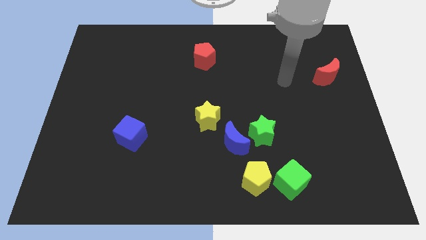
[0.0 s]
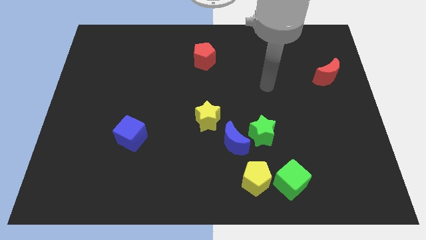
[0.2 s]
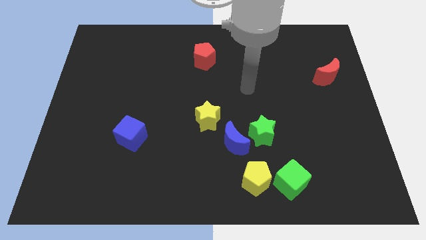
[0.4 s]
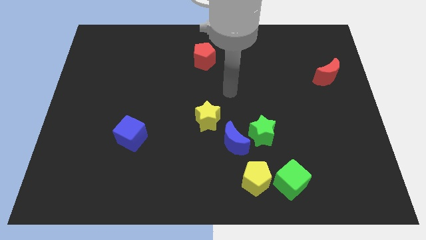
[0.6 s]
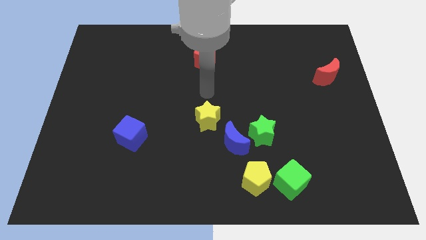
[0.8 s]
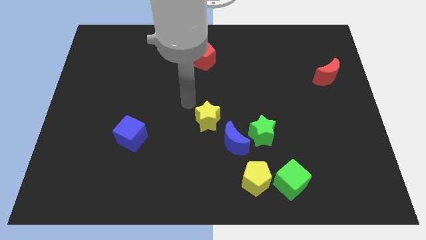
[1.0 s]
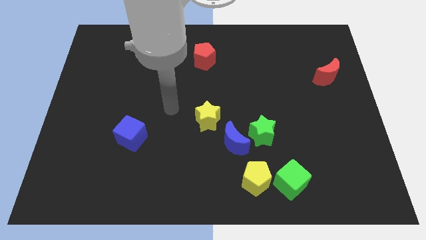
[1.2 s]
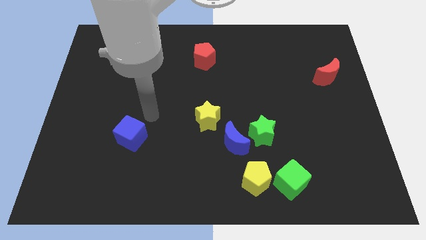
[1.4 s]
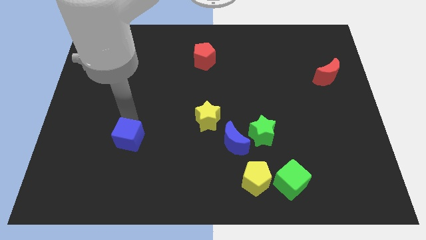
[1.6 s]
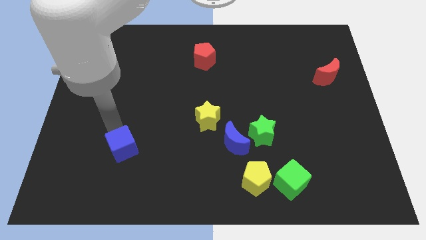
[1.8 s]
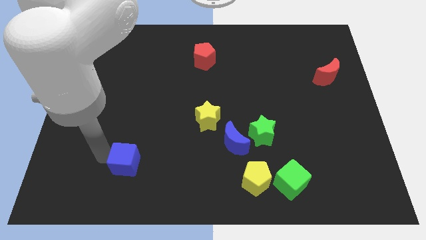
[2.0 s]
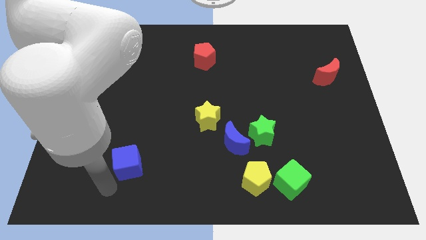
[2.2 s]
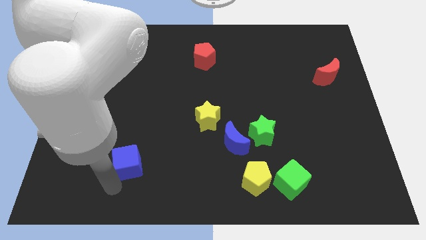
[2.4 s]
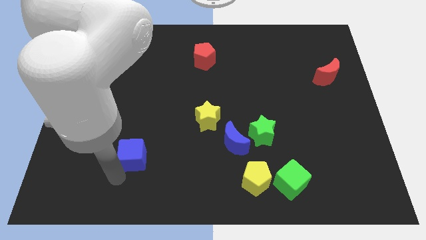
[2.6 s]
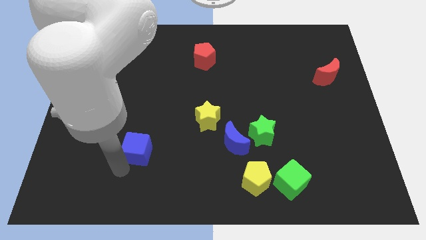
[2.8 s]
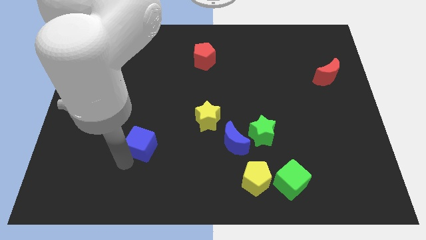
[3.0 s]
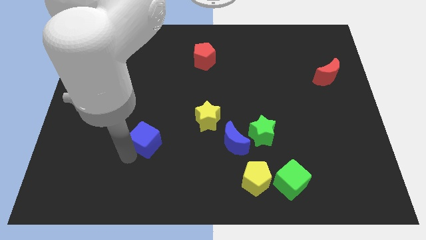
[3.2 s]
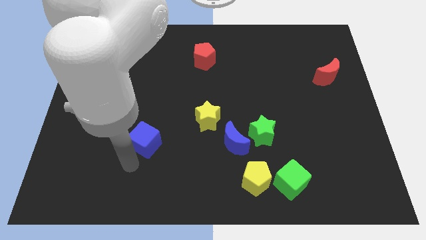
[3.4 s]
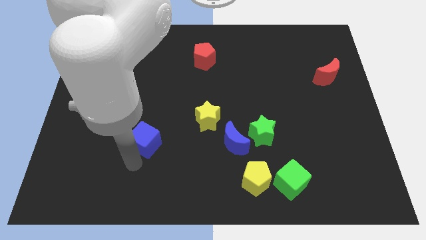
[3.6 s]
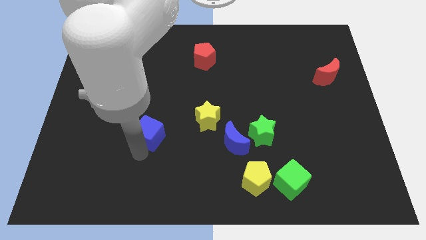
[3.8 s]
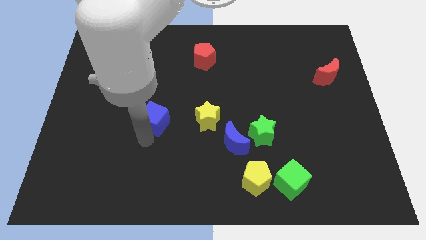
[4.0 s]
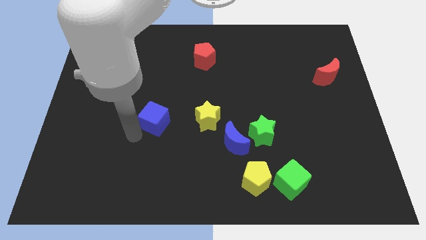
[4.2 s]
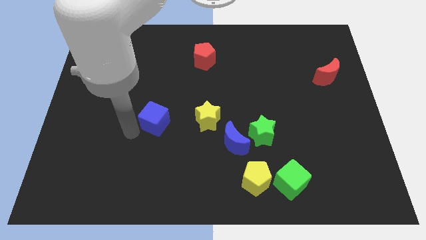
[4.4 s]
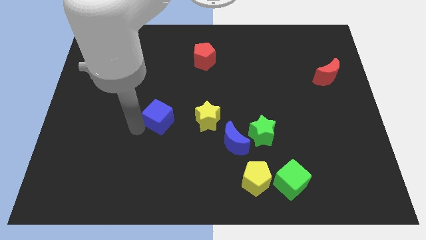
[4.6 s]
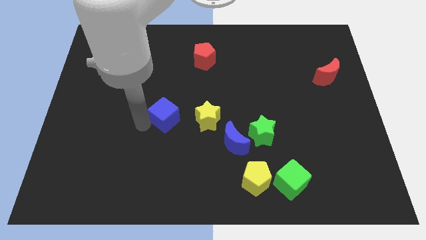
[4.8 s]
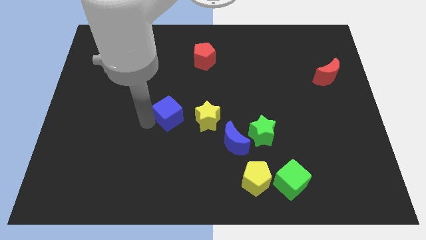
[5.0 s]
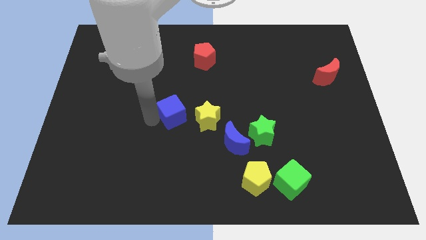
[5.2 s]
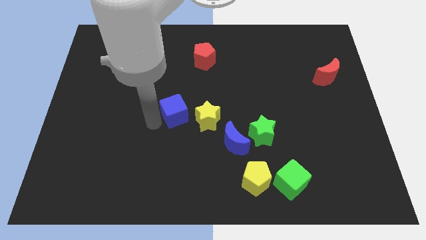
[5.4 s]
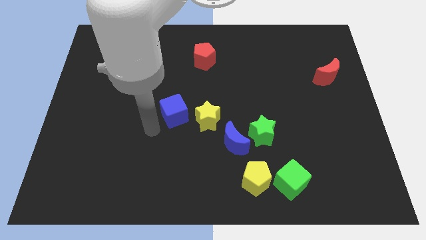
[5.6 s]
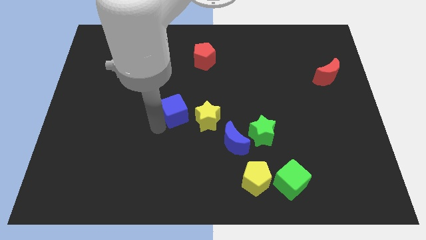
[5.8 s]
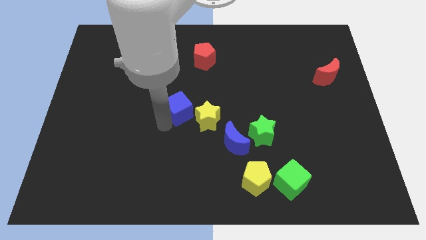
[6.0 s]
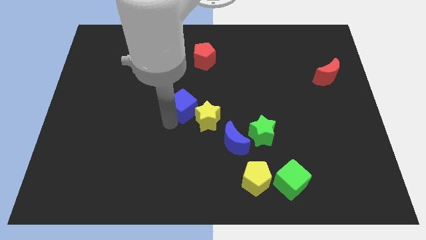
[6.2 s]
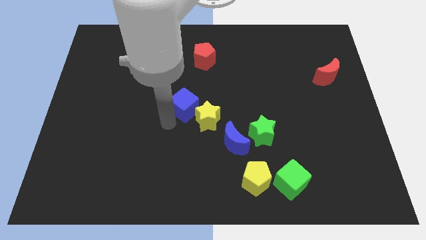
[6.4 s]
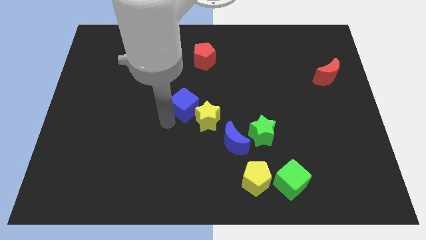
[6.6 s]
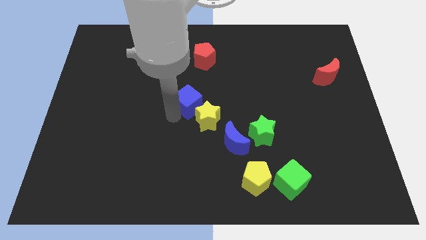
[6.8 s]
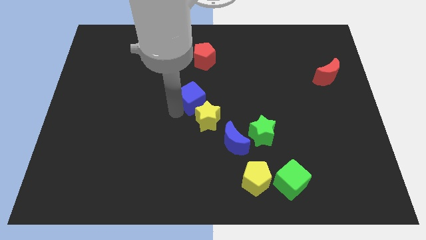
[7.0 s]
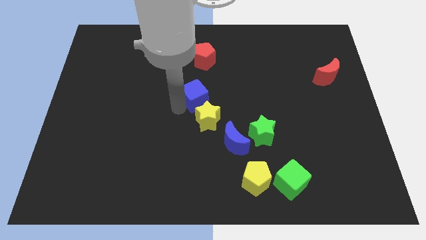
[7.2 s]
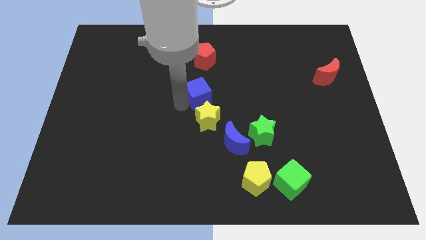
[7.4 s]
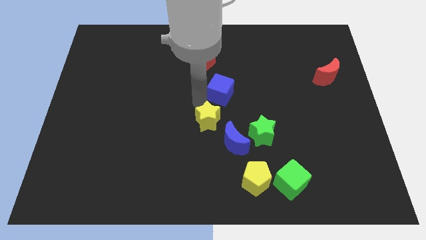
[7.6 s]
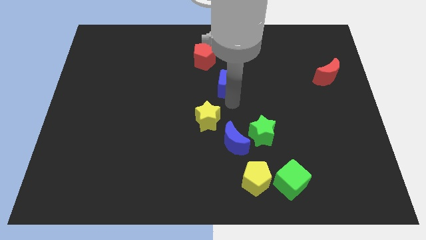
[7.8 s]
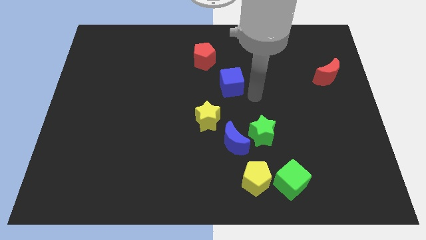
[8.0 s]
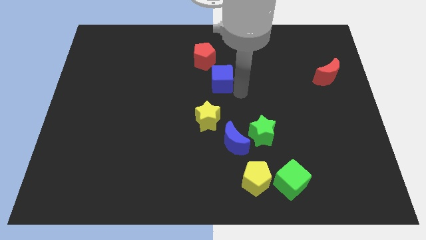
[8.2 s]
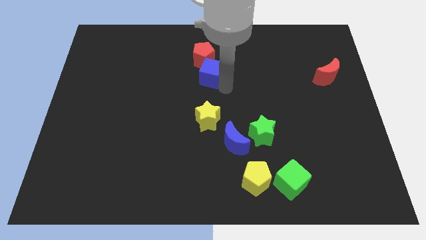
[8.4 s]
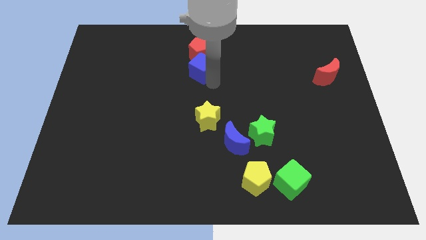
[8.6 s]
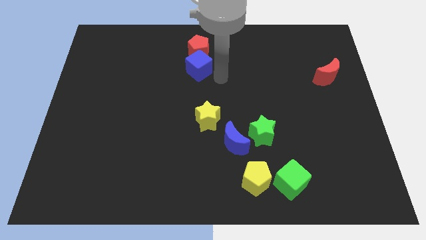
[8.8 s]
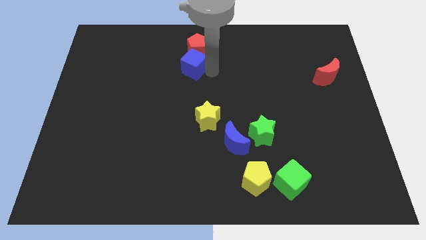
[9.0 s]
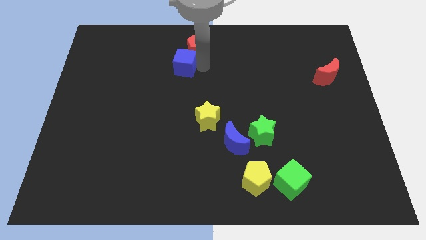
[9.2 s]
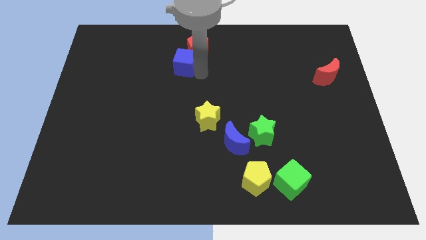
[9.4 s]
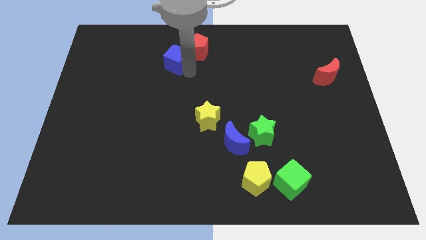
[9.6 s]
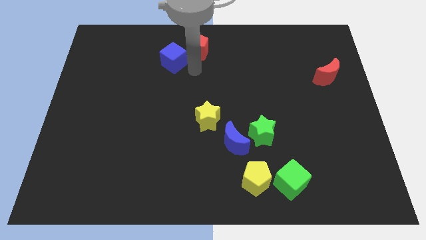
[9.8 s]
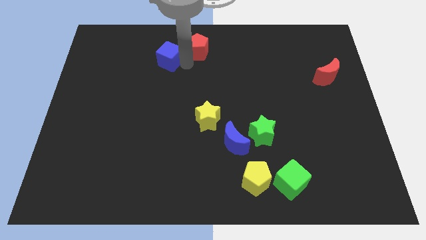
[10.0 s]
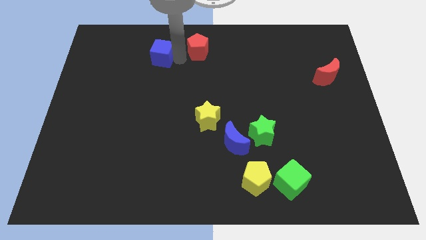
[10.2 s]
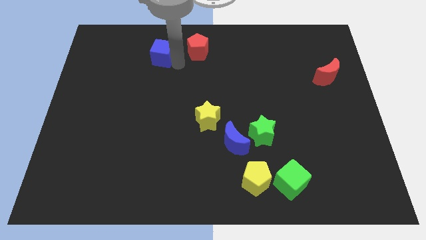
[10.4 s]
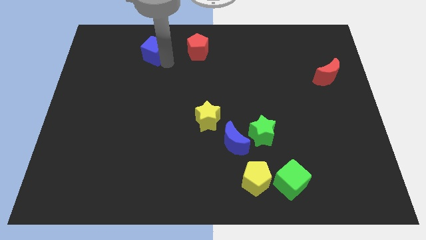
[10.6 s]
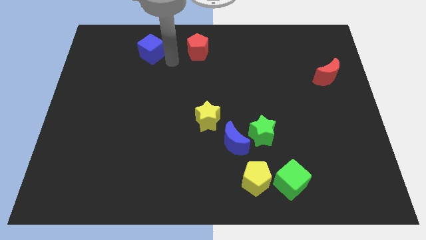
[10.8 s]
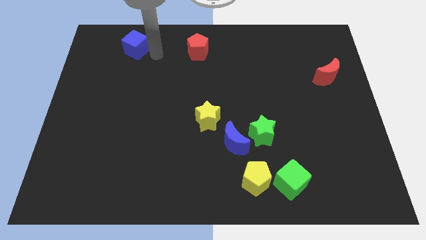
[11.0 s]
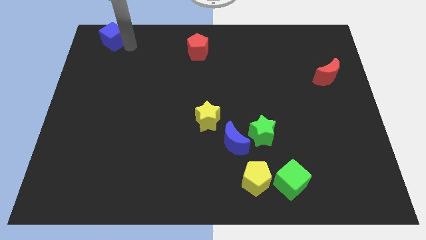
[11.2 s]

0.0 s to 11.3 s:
move the blue cube to the top left

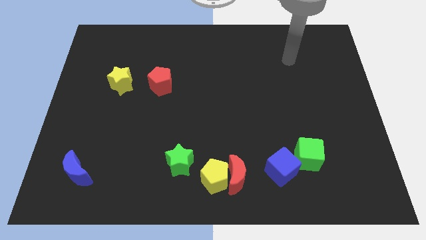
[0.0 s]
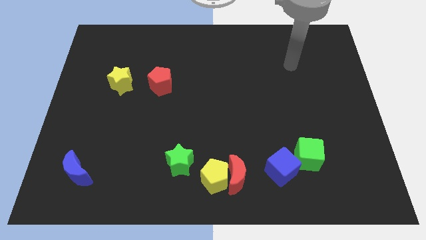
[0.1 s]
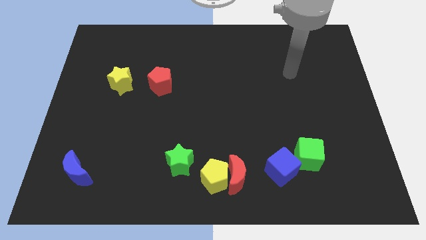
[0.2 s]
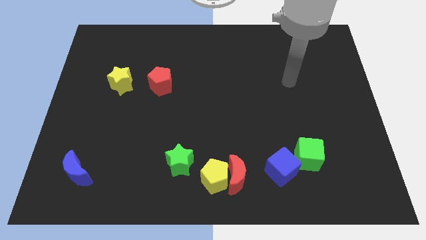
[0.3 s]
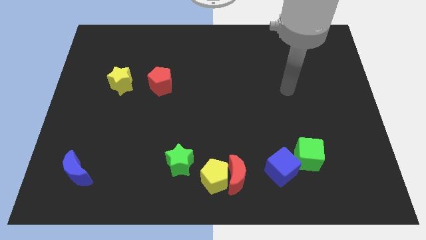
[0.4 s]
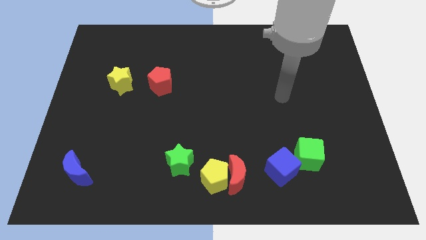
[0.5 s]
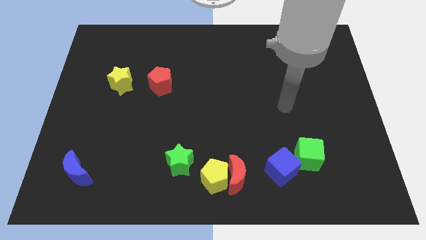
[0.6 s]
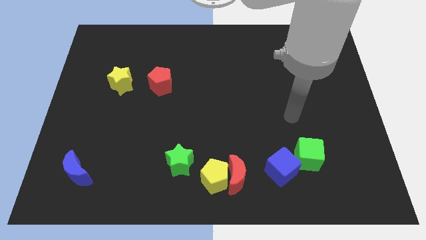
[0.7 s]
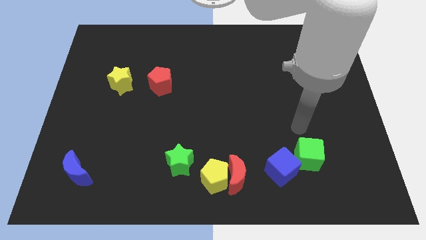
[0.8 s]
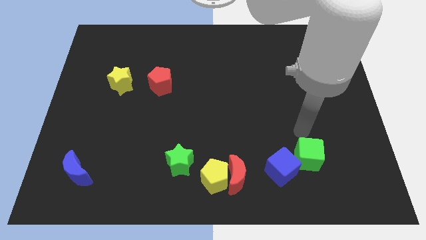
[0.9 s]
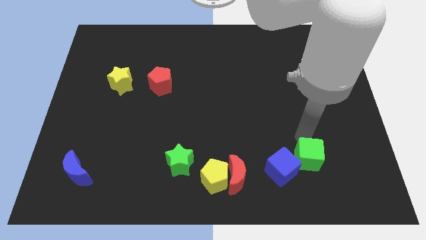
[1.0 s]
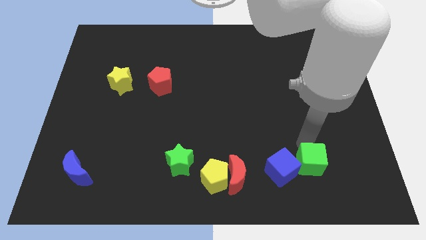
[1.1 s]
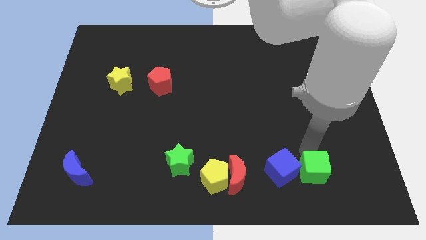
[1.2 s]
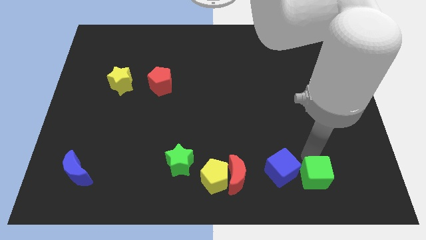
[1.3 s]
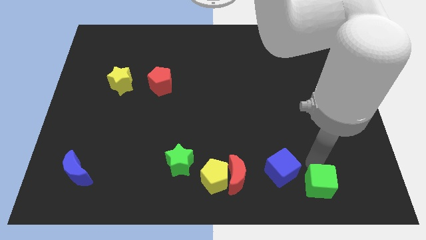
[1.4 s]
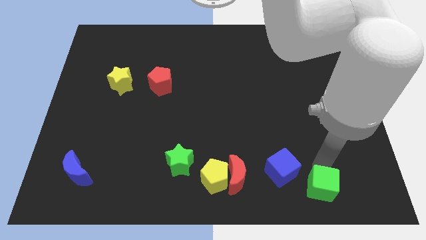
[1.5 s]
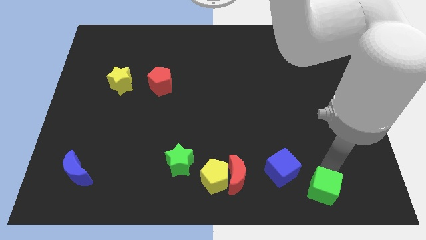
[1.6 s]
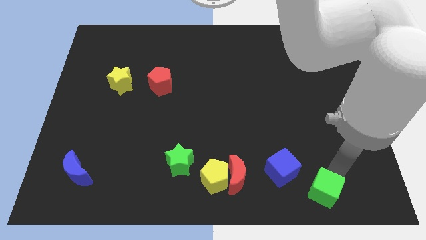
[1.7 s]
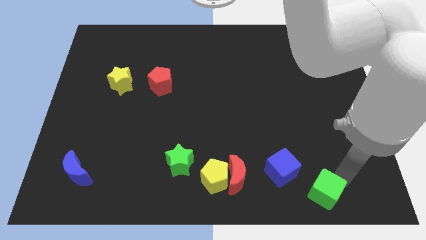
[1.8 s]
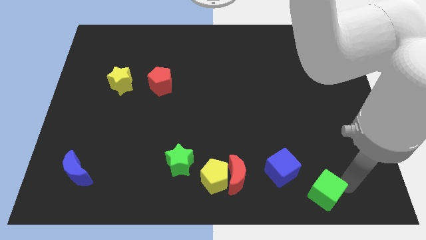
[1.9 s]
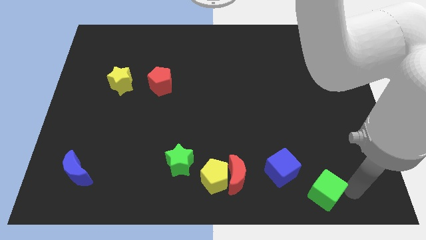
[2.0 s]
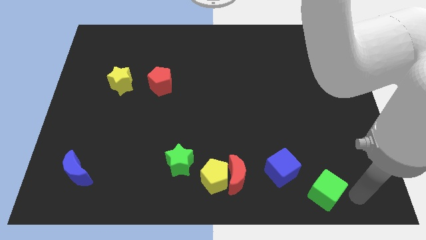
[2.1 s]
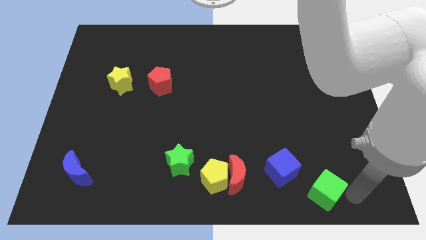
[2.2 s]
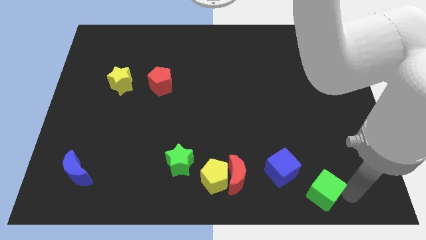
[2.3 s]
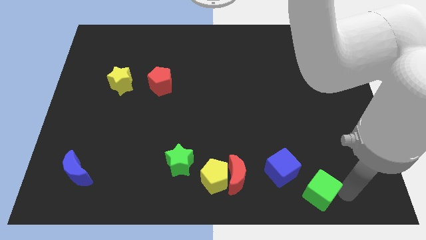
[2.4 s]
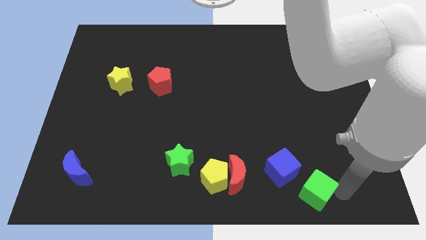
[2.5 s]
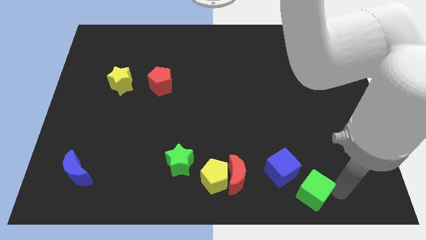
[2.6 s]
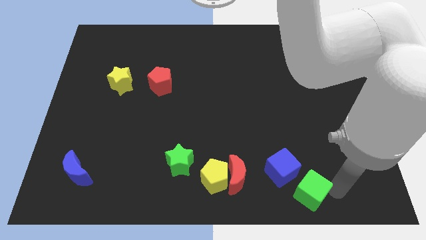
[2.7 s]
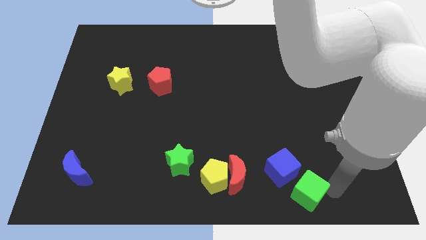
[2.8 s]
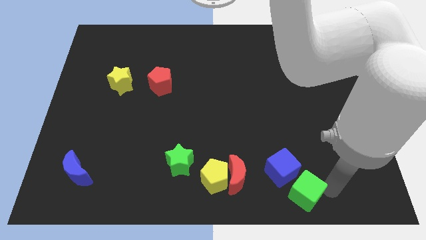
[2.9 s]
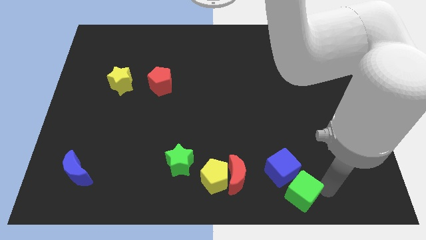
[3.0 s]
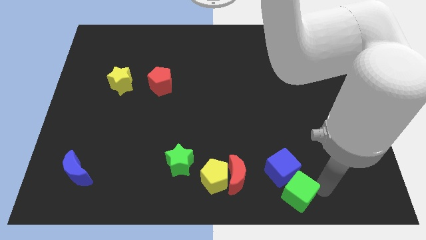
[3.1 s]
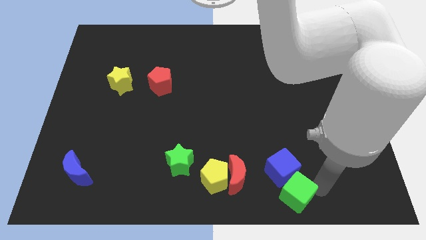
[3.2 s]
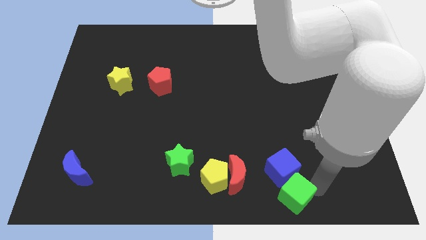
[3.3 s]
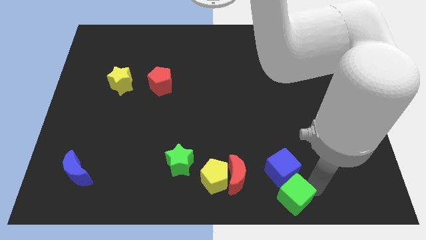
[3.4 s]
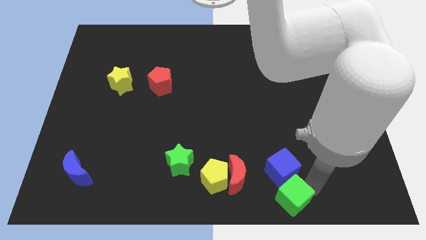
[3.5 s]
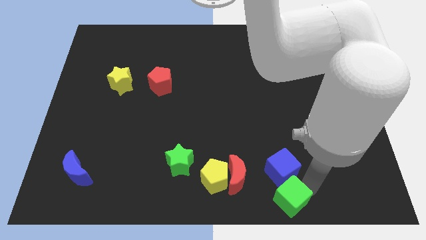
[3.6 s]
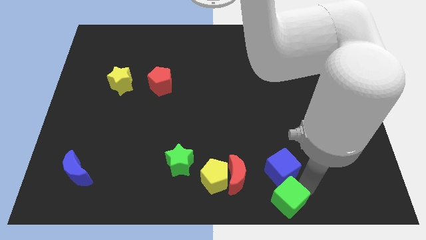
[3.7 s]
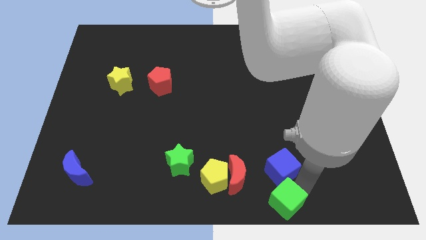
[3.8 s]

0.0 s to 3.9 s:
move the green cube to the bottom
